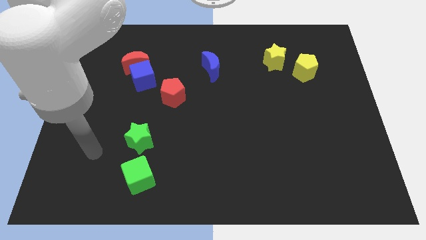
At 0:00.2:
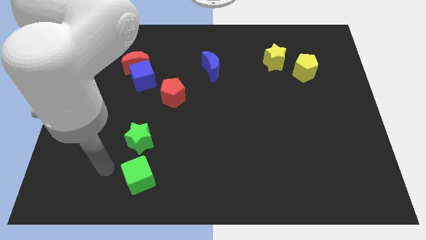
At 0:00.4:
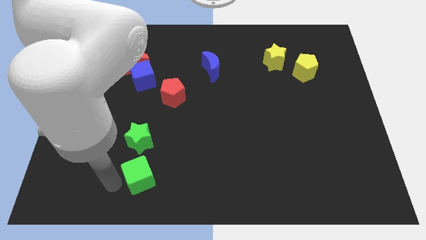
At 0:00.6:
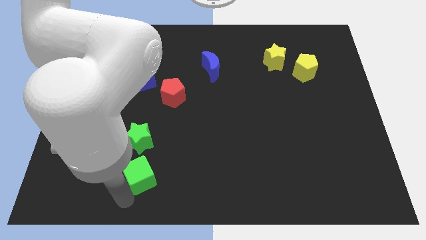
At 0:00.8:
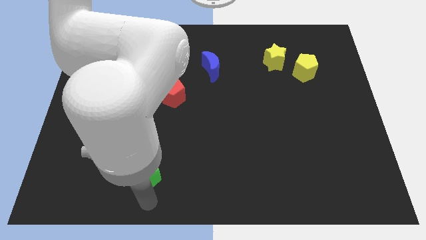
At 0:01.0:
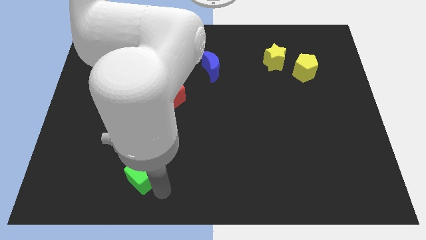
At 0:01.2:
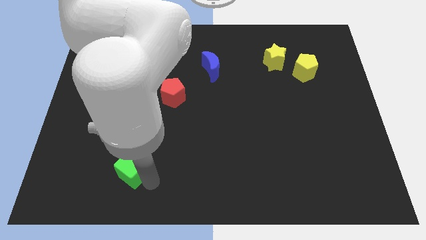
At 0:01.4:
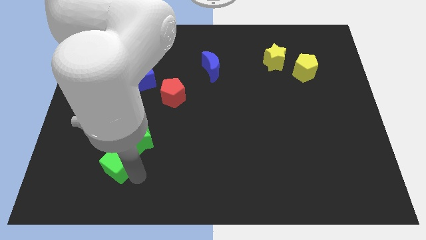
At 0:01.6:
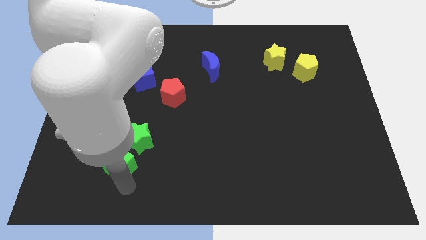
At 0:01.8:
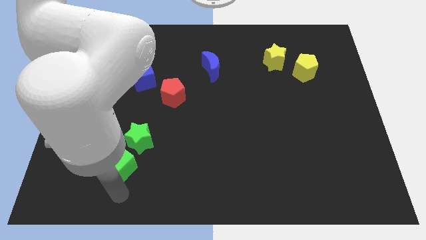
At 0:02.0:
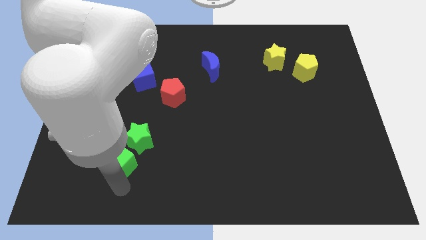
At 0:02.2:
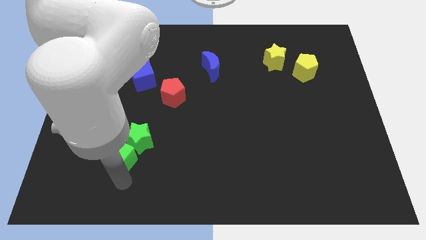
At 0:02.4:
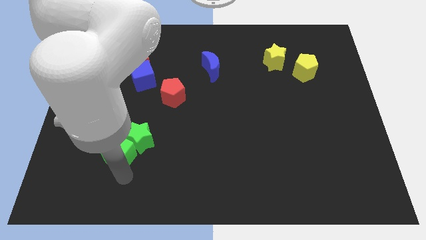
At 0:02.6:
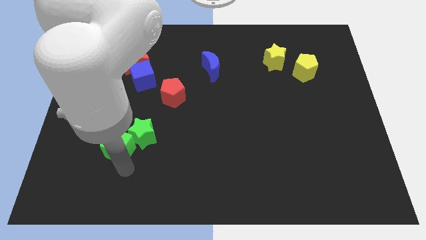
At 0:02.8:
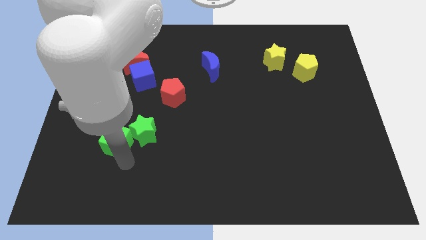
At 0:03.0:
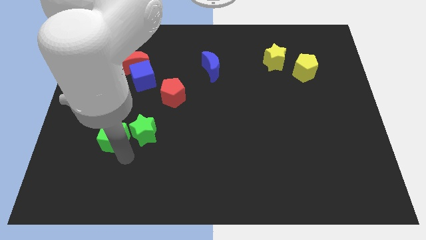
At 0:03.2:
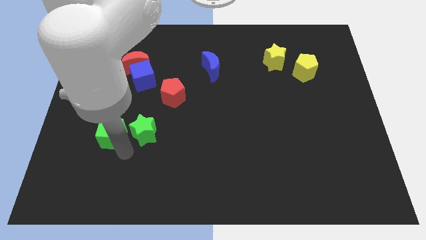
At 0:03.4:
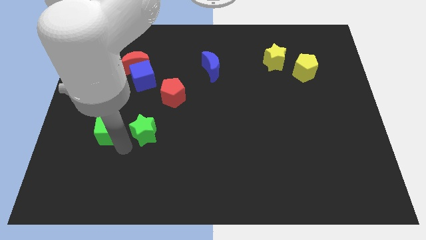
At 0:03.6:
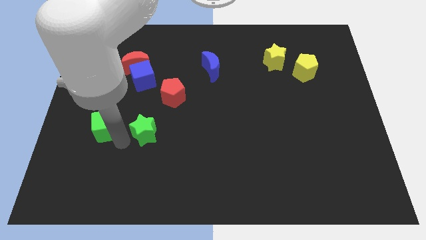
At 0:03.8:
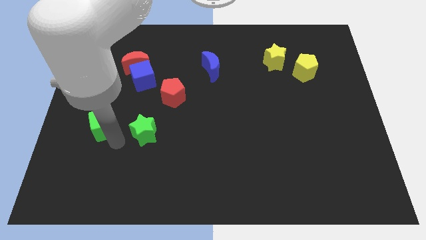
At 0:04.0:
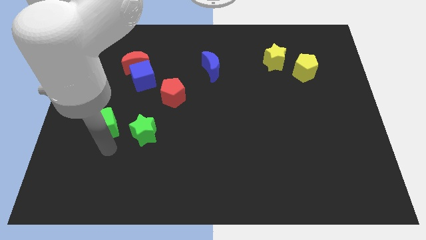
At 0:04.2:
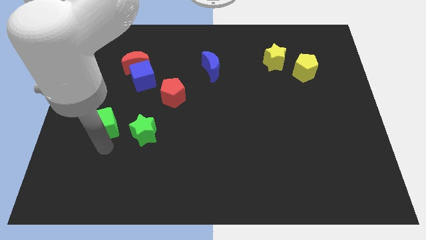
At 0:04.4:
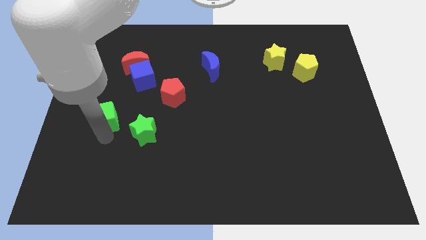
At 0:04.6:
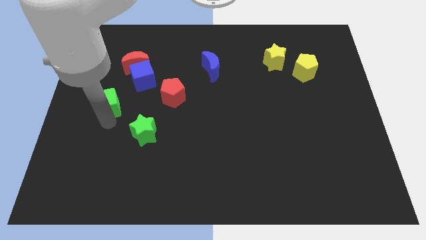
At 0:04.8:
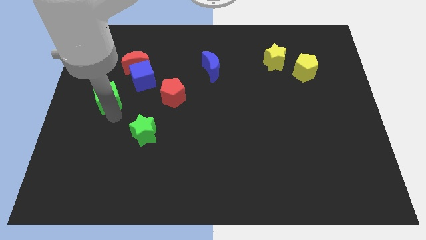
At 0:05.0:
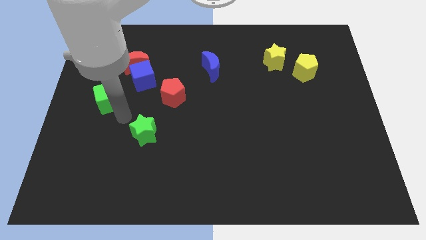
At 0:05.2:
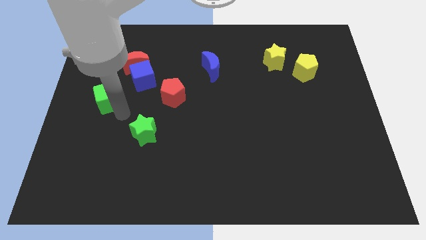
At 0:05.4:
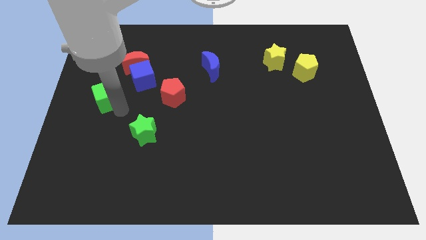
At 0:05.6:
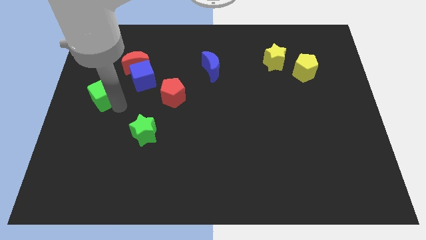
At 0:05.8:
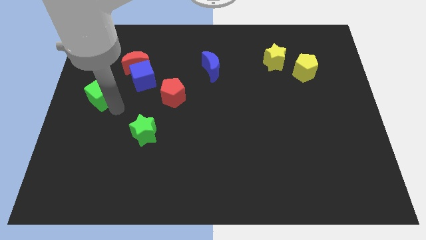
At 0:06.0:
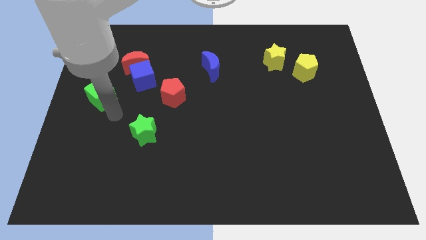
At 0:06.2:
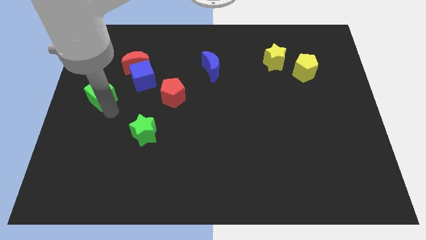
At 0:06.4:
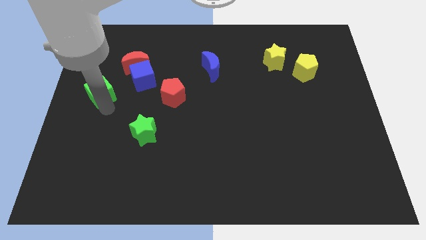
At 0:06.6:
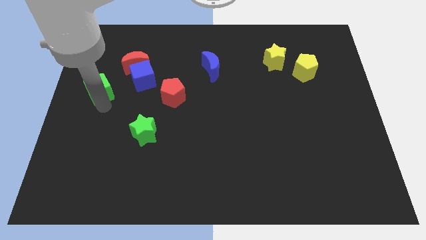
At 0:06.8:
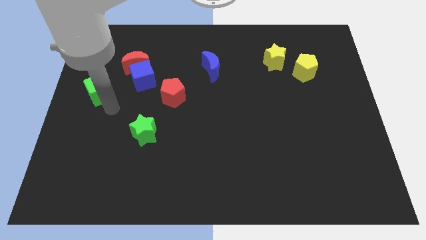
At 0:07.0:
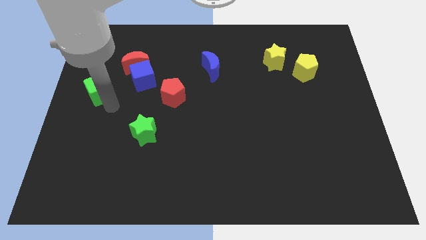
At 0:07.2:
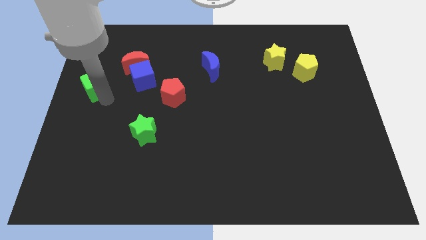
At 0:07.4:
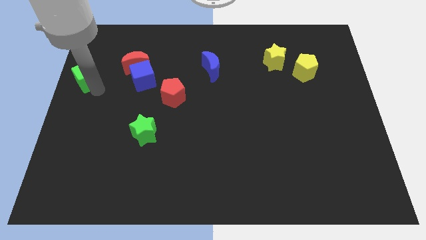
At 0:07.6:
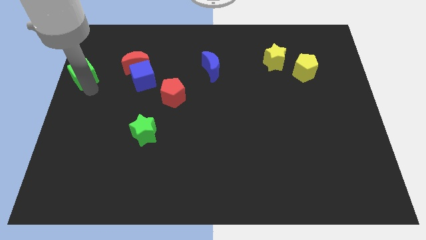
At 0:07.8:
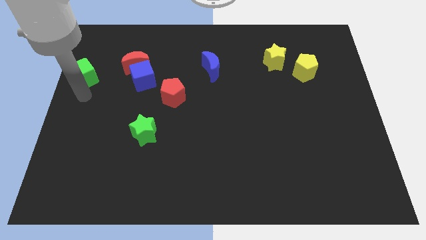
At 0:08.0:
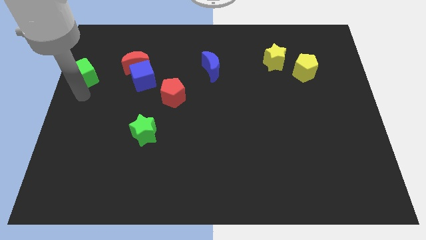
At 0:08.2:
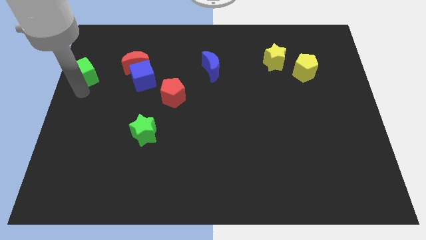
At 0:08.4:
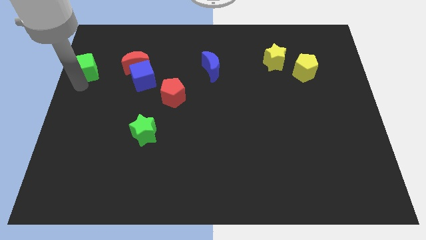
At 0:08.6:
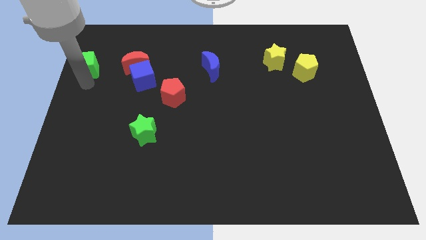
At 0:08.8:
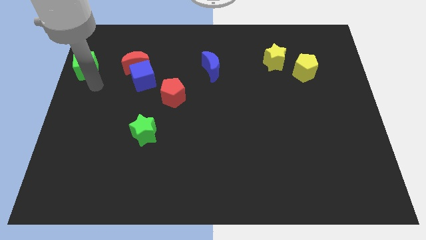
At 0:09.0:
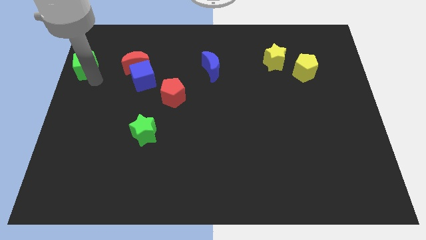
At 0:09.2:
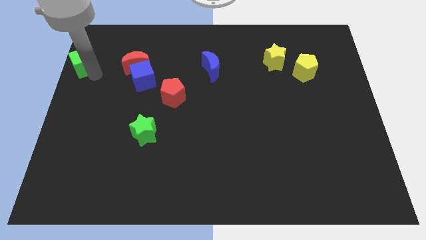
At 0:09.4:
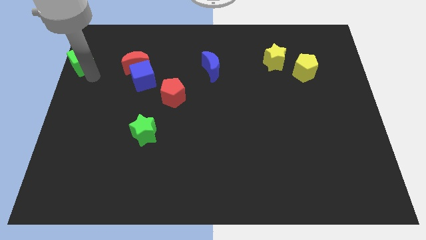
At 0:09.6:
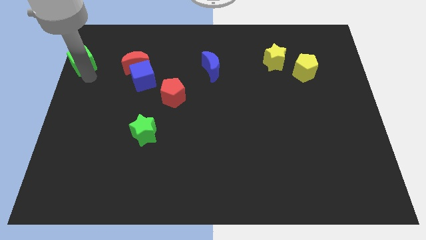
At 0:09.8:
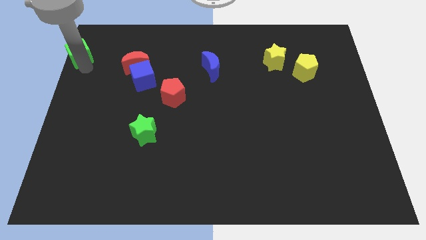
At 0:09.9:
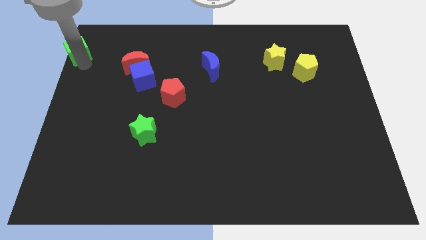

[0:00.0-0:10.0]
put the green cube to the top left of the board

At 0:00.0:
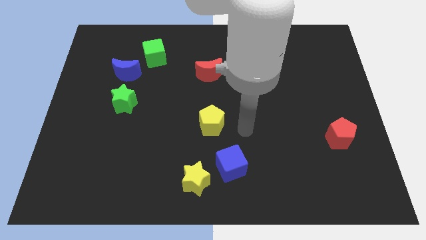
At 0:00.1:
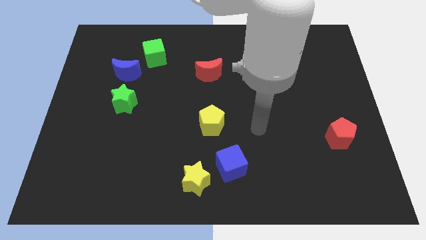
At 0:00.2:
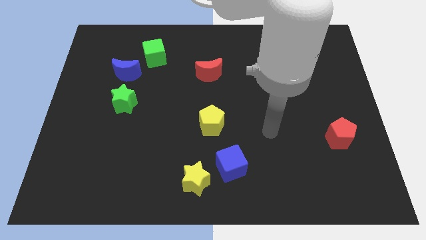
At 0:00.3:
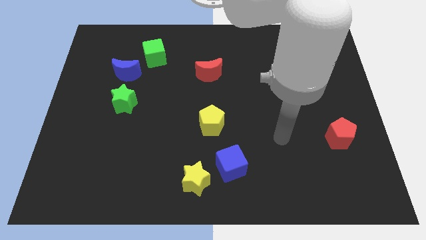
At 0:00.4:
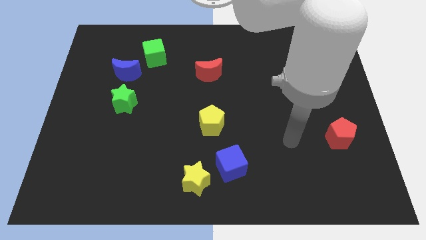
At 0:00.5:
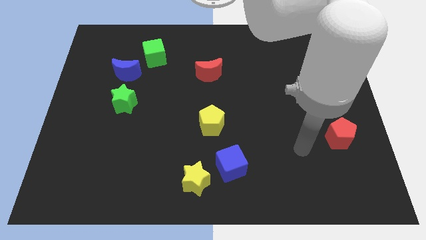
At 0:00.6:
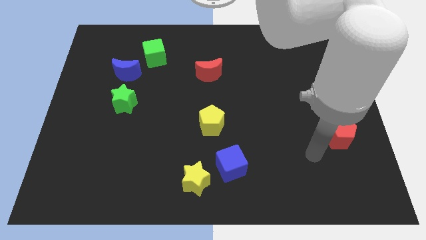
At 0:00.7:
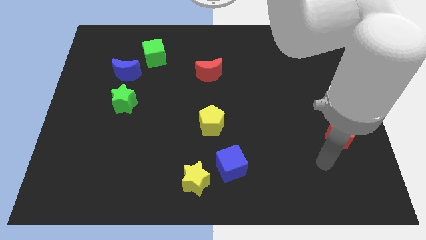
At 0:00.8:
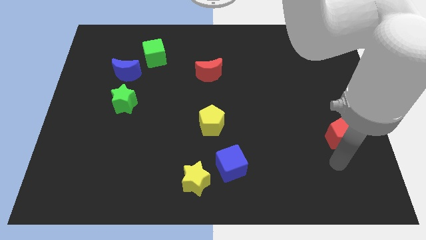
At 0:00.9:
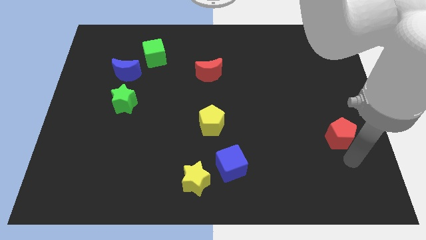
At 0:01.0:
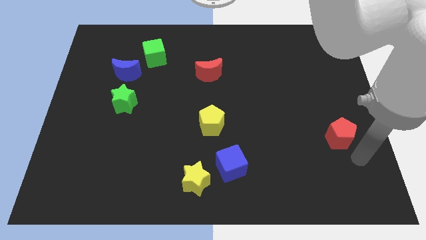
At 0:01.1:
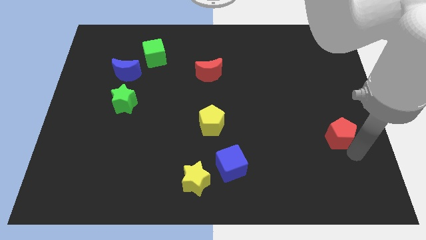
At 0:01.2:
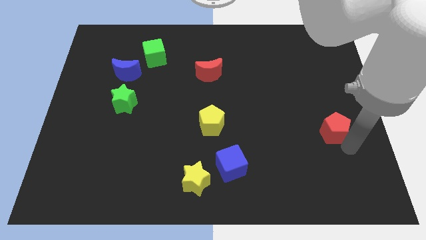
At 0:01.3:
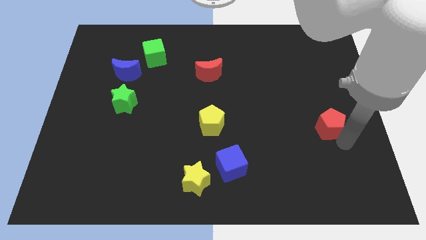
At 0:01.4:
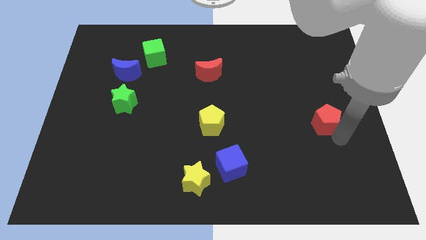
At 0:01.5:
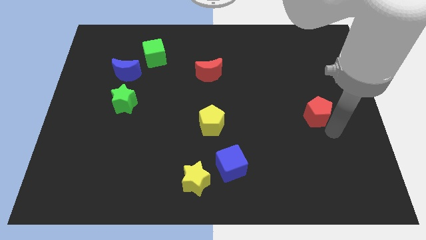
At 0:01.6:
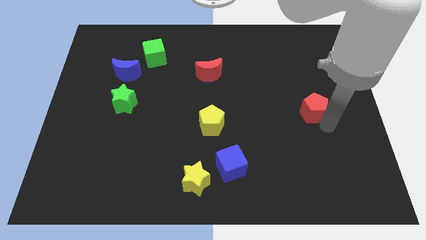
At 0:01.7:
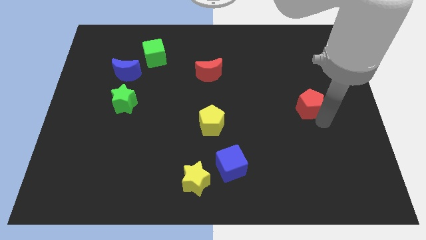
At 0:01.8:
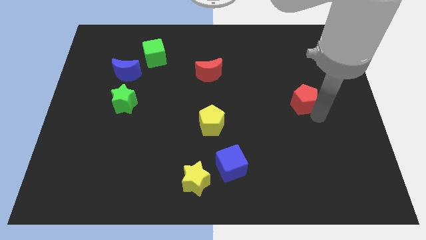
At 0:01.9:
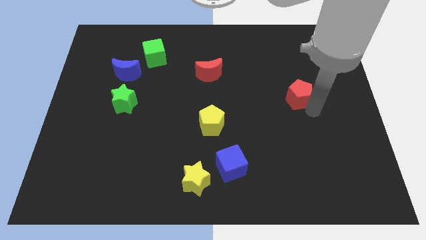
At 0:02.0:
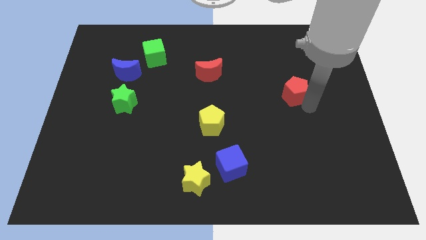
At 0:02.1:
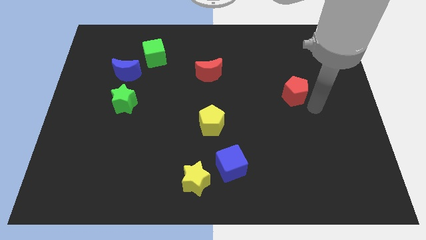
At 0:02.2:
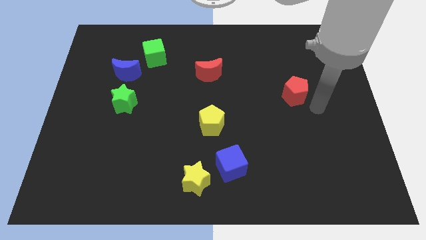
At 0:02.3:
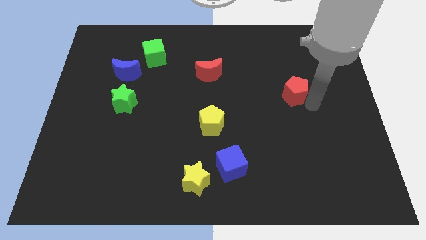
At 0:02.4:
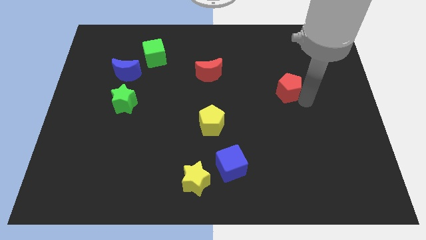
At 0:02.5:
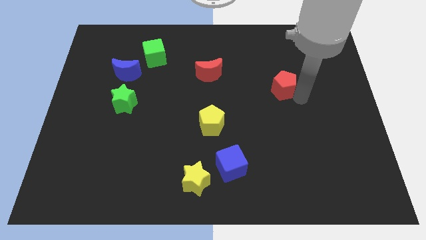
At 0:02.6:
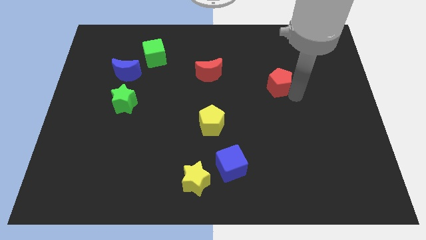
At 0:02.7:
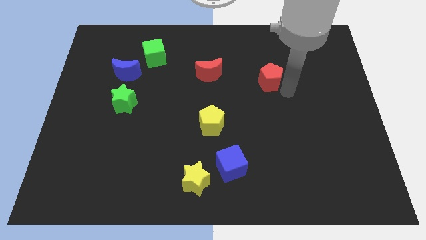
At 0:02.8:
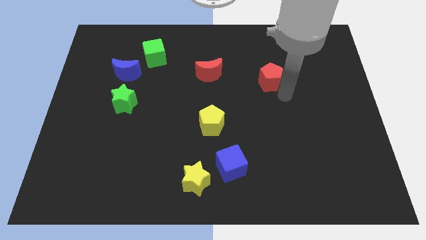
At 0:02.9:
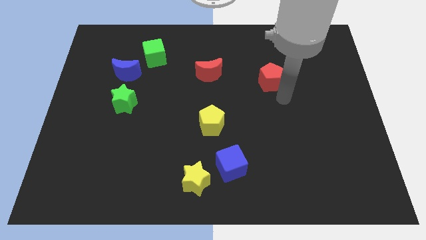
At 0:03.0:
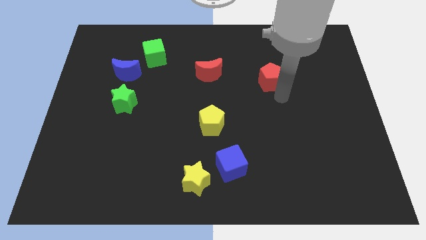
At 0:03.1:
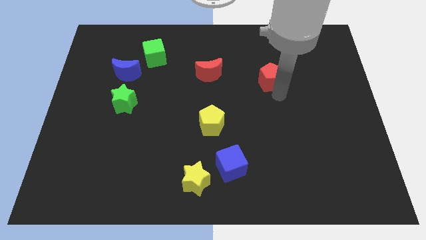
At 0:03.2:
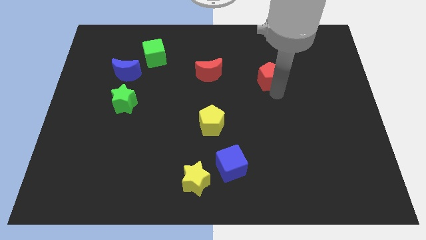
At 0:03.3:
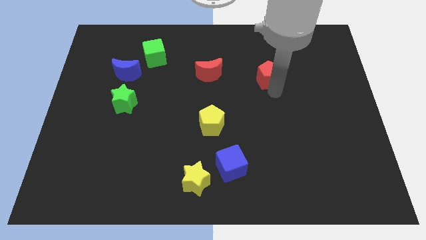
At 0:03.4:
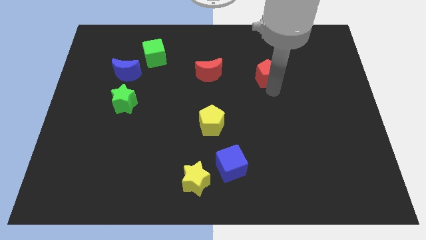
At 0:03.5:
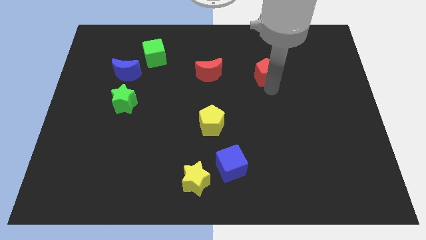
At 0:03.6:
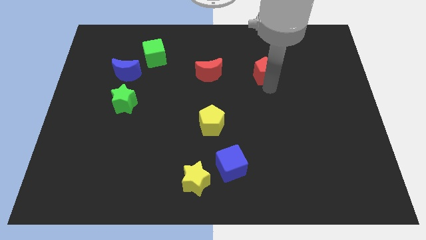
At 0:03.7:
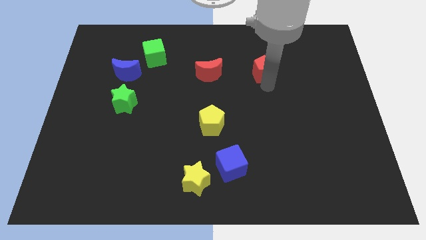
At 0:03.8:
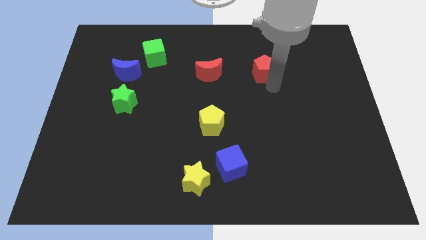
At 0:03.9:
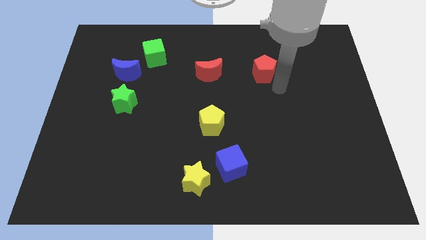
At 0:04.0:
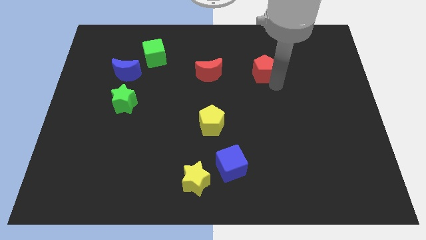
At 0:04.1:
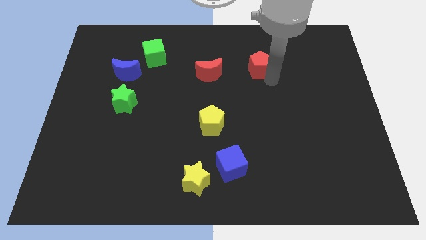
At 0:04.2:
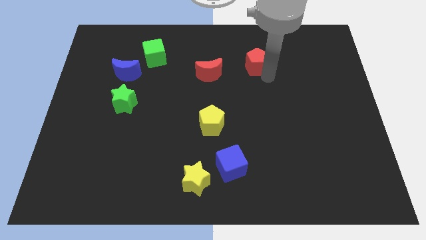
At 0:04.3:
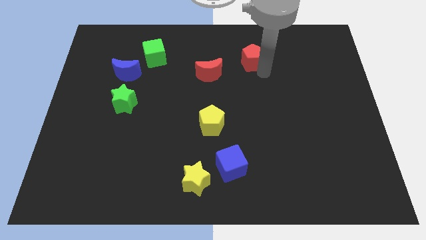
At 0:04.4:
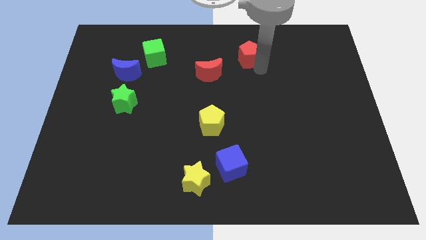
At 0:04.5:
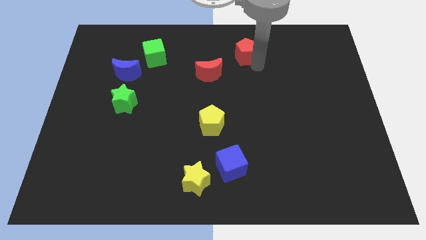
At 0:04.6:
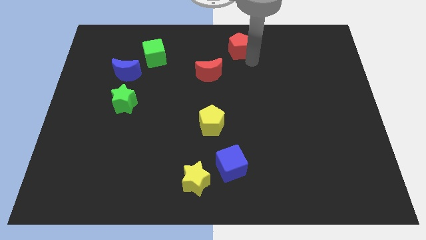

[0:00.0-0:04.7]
put the red pentagon to the top
